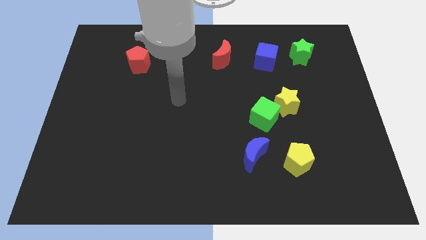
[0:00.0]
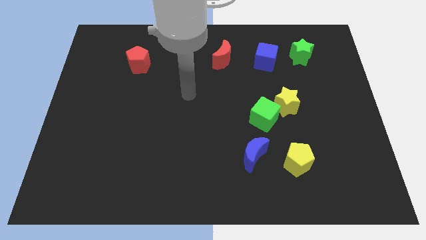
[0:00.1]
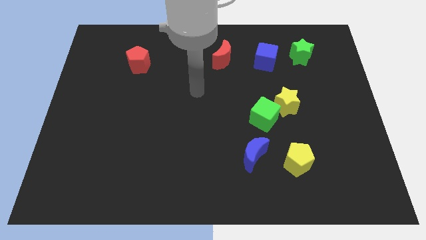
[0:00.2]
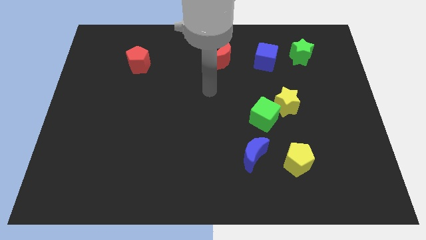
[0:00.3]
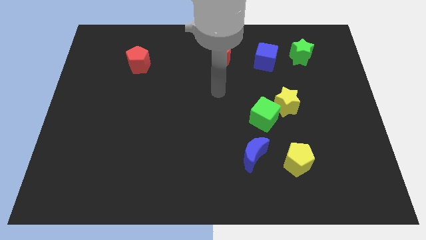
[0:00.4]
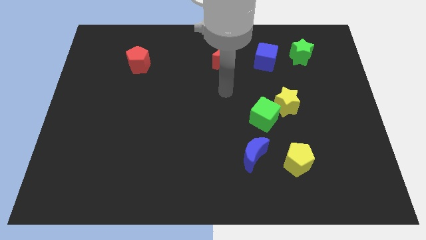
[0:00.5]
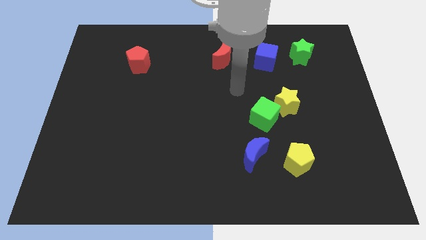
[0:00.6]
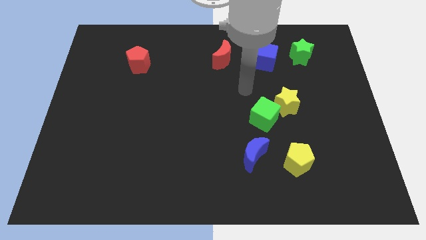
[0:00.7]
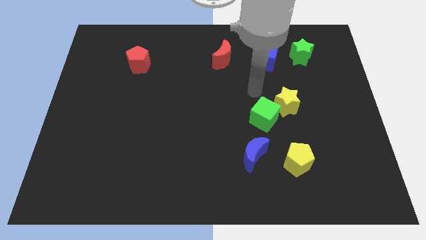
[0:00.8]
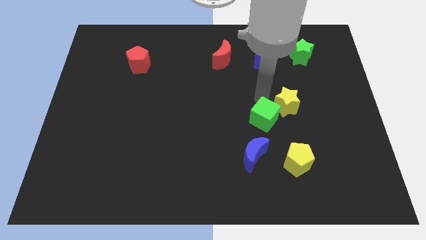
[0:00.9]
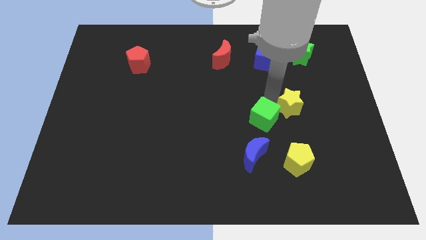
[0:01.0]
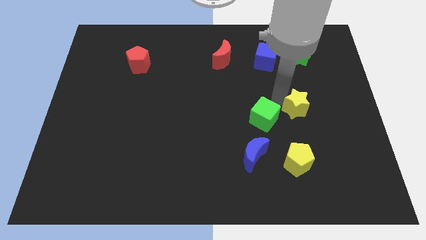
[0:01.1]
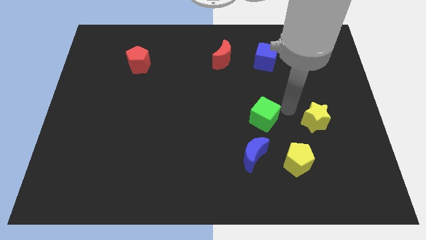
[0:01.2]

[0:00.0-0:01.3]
pull the green cube apart from the yellow star

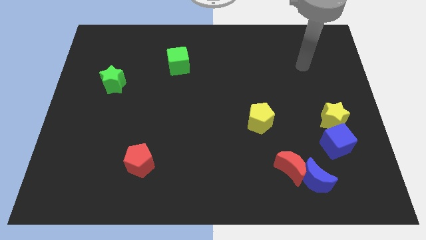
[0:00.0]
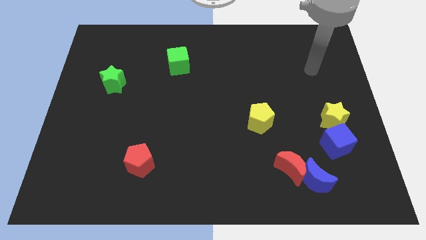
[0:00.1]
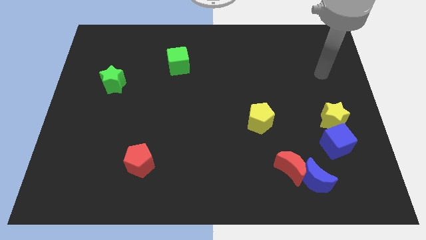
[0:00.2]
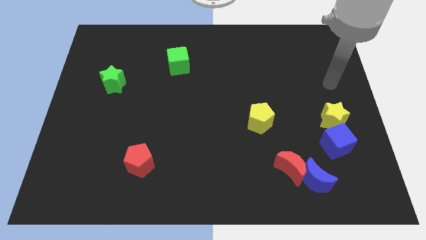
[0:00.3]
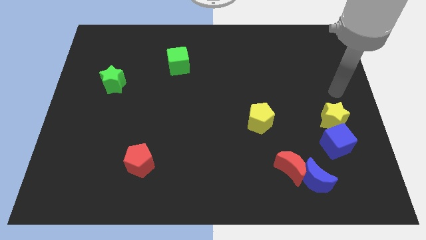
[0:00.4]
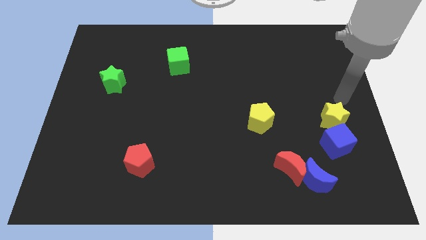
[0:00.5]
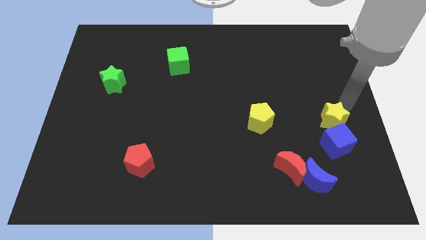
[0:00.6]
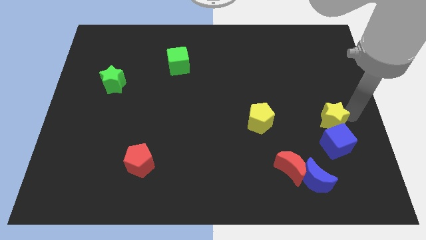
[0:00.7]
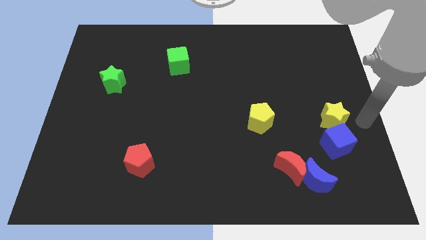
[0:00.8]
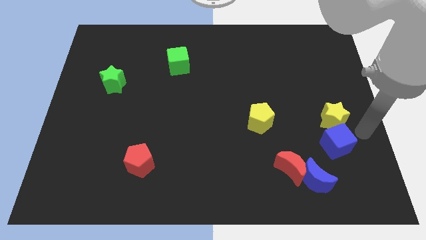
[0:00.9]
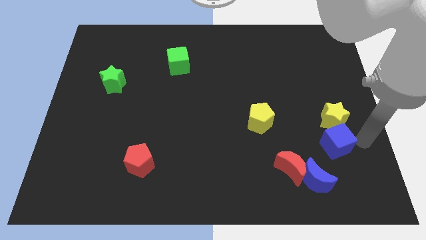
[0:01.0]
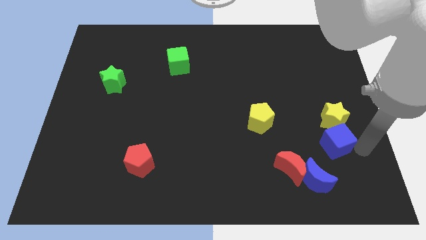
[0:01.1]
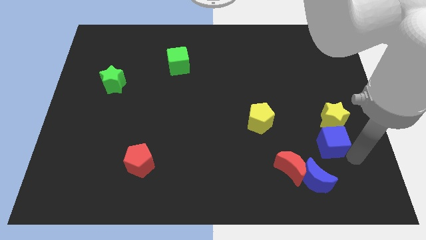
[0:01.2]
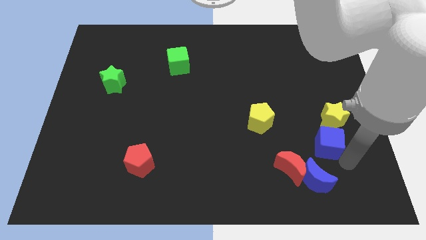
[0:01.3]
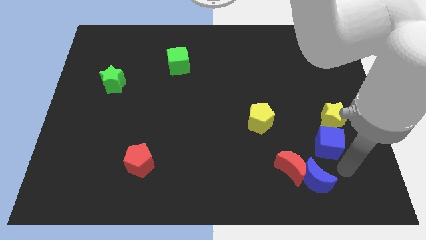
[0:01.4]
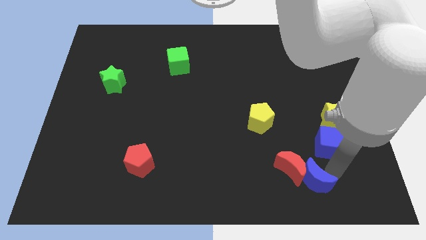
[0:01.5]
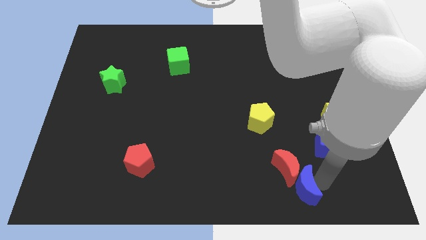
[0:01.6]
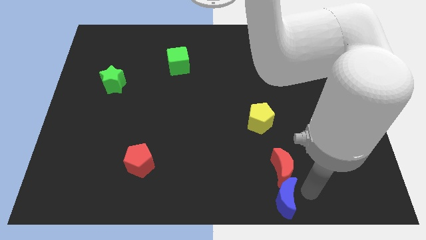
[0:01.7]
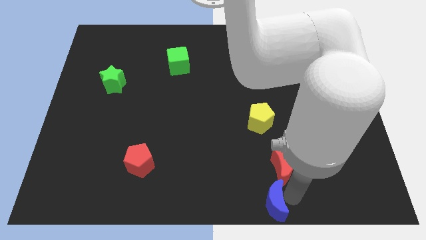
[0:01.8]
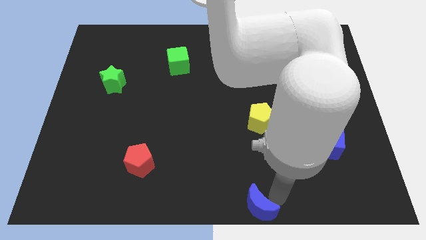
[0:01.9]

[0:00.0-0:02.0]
move the red moon away from the blue moon

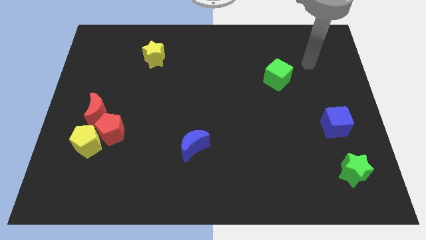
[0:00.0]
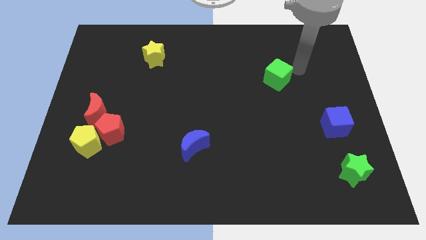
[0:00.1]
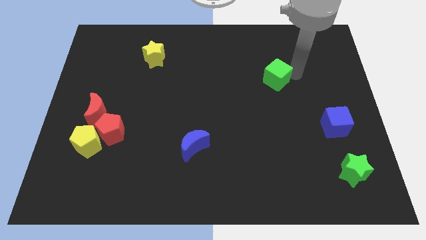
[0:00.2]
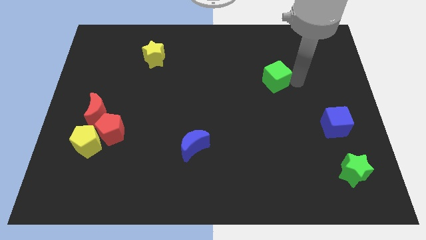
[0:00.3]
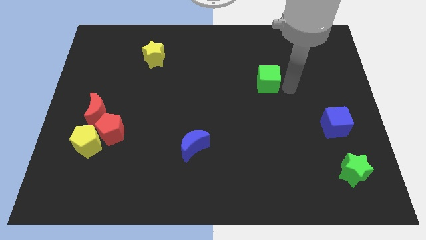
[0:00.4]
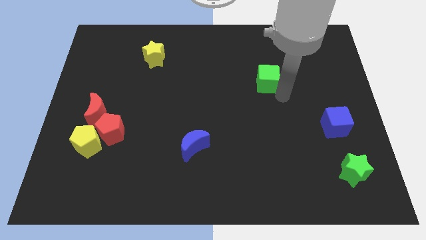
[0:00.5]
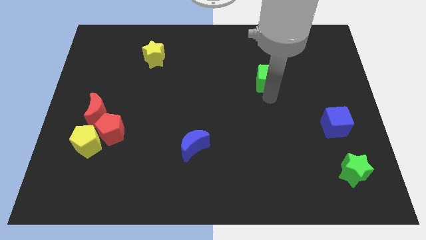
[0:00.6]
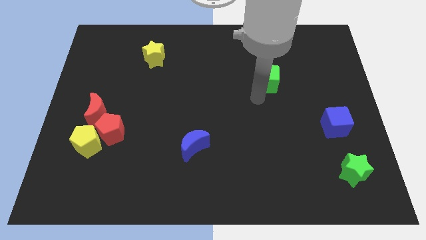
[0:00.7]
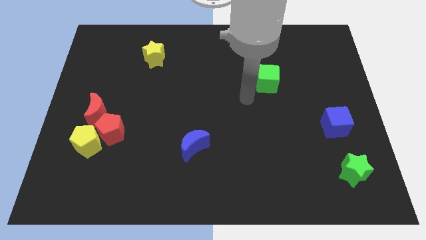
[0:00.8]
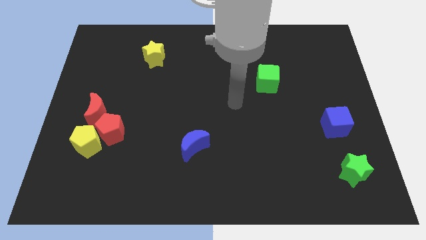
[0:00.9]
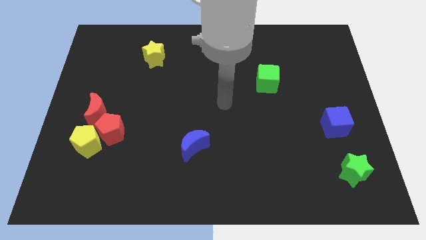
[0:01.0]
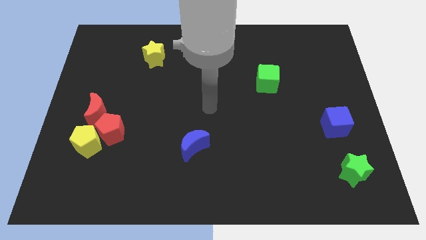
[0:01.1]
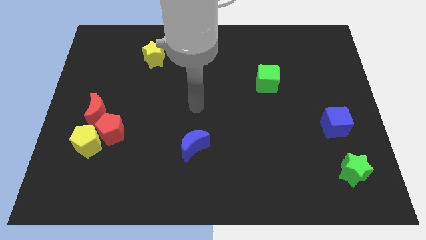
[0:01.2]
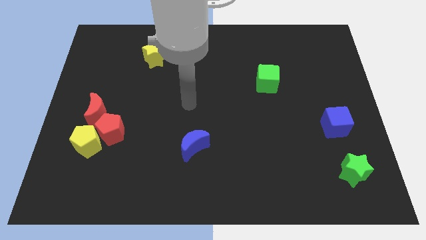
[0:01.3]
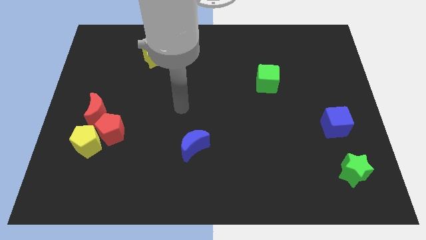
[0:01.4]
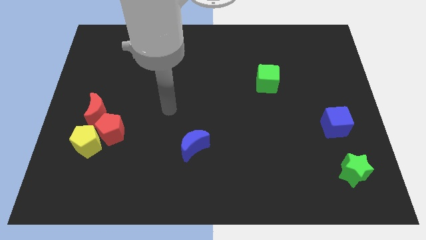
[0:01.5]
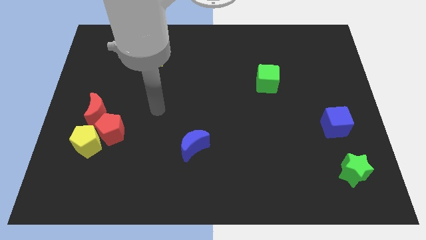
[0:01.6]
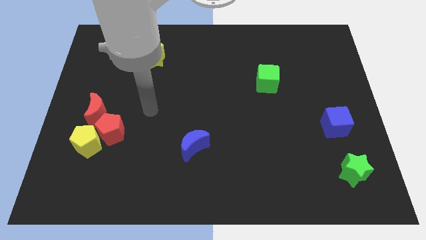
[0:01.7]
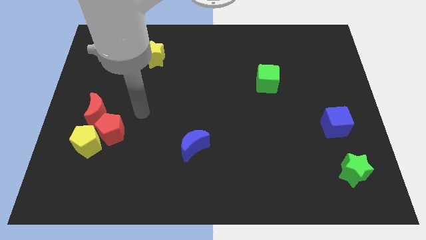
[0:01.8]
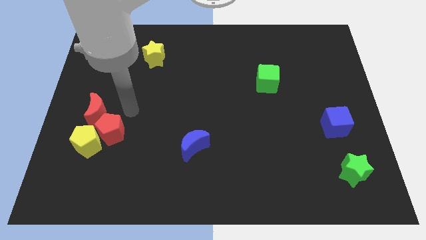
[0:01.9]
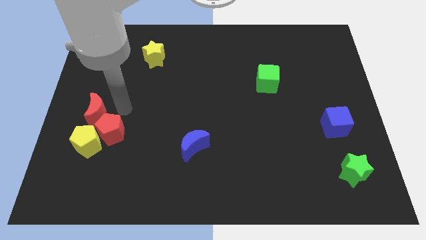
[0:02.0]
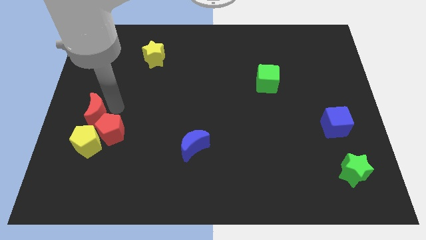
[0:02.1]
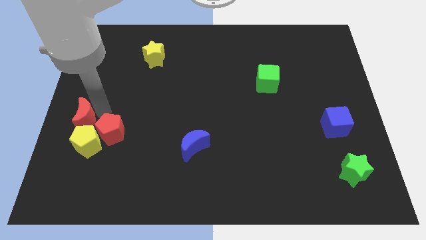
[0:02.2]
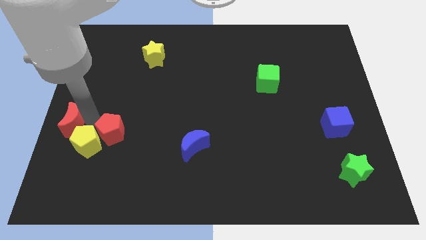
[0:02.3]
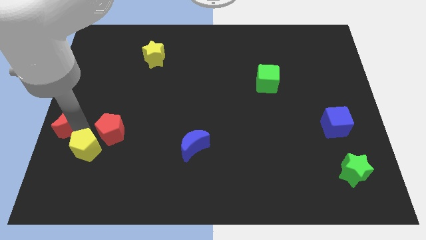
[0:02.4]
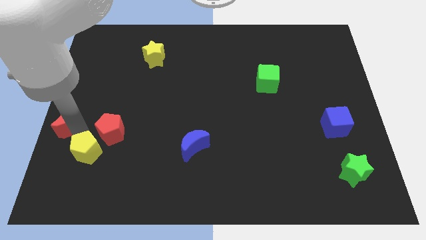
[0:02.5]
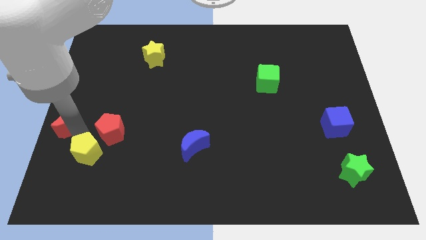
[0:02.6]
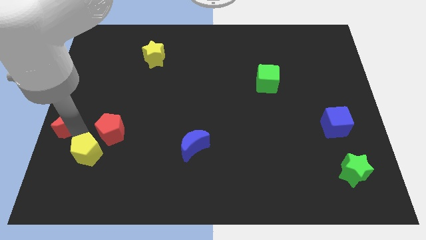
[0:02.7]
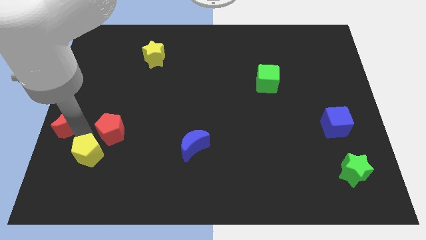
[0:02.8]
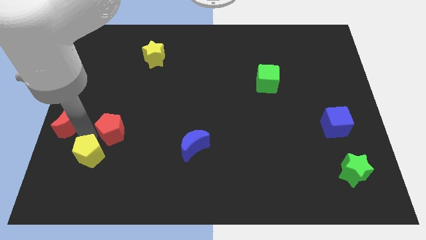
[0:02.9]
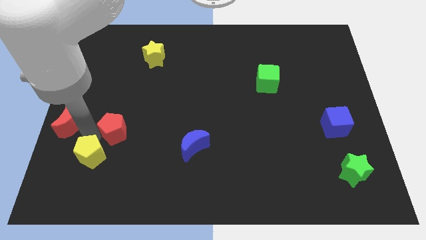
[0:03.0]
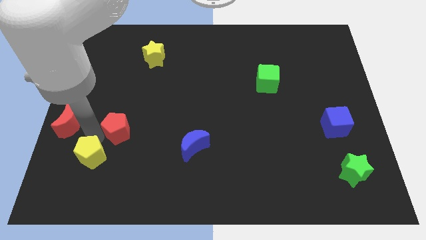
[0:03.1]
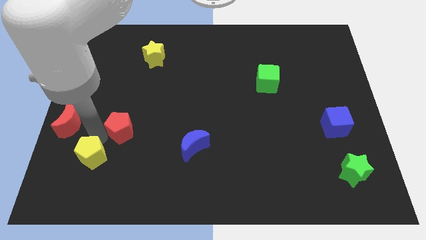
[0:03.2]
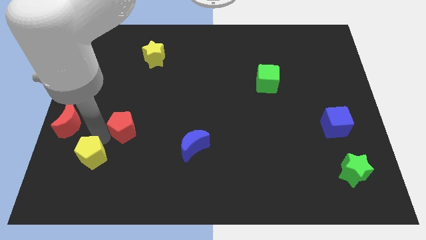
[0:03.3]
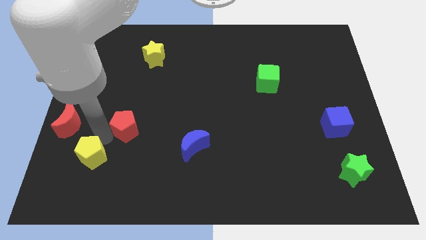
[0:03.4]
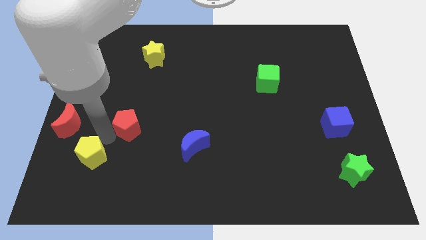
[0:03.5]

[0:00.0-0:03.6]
move the red pentagon away from the yellow pentagon and red moon

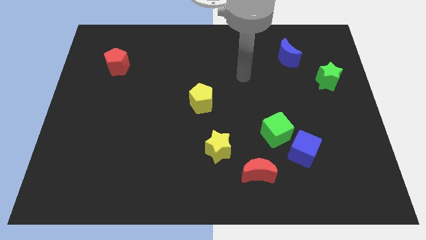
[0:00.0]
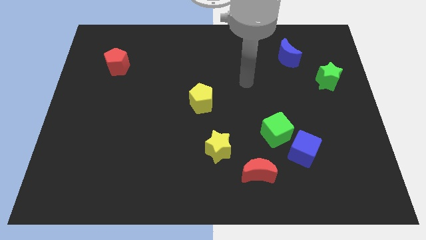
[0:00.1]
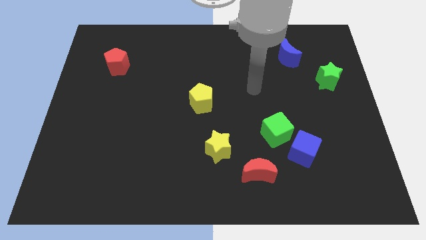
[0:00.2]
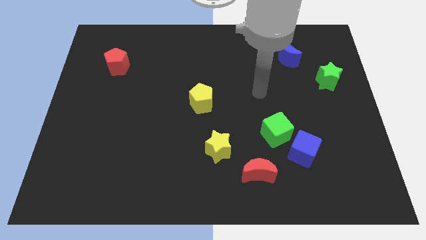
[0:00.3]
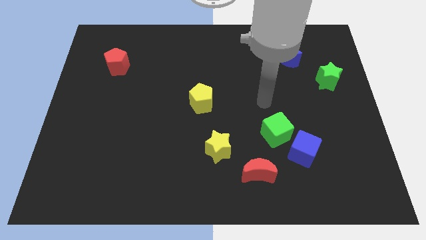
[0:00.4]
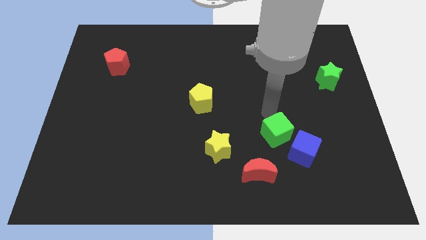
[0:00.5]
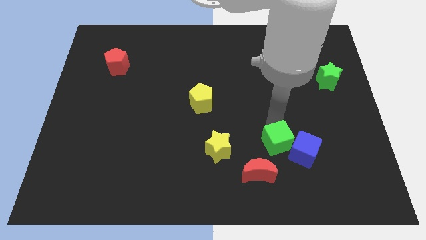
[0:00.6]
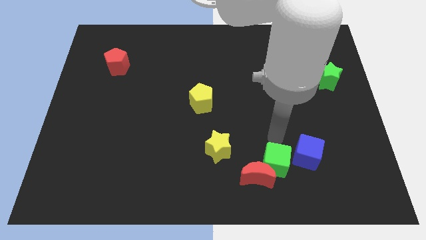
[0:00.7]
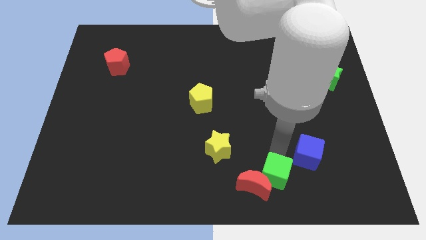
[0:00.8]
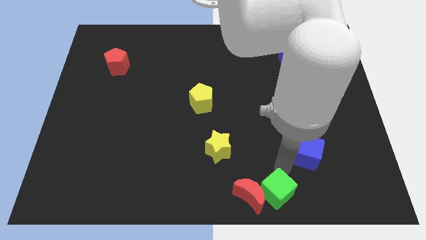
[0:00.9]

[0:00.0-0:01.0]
move the blue cube away from the green cube

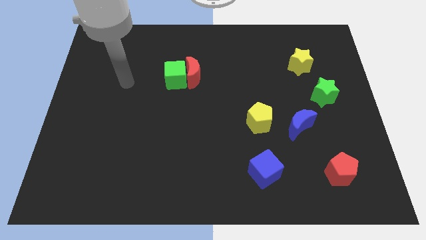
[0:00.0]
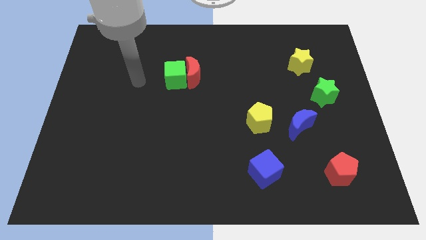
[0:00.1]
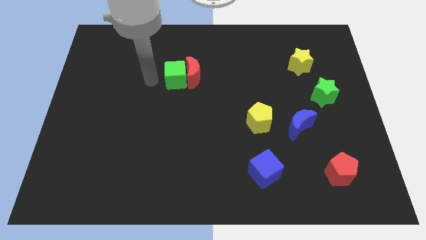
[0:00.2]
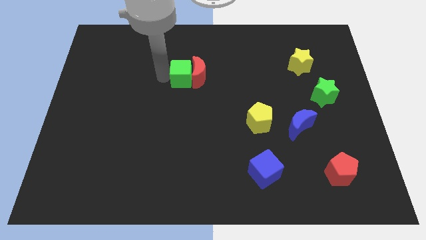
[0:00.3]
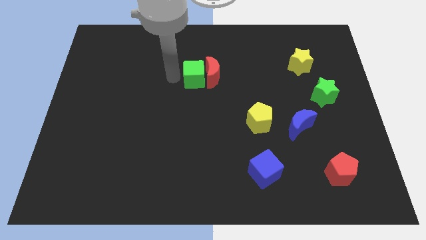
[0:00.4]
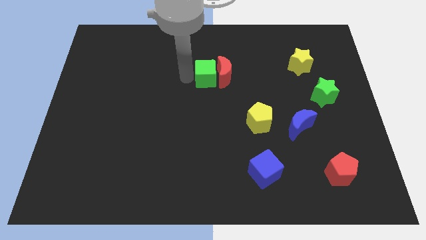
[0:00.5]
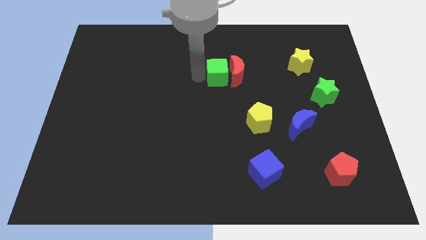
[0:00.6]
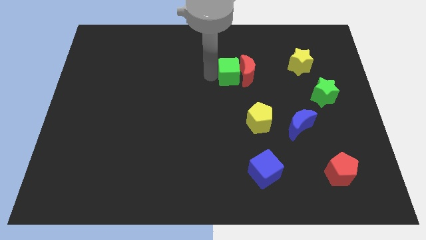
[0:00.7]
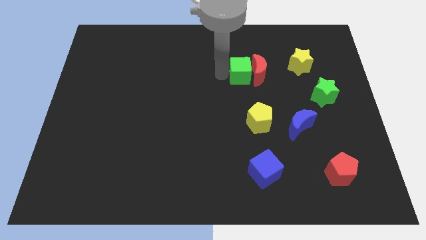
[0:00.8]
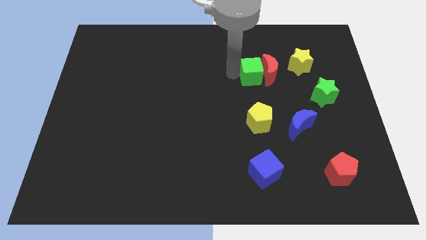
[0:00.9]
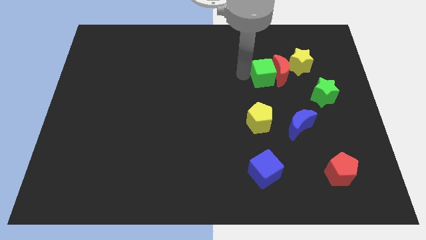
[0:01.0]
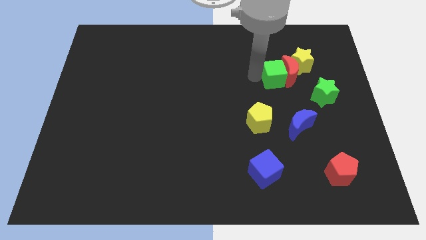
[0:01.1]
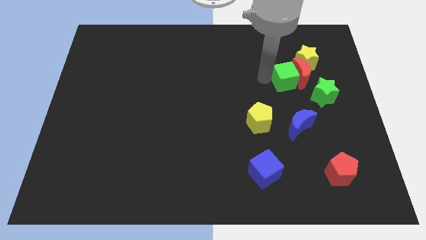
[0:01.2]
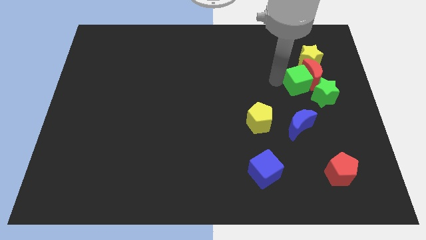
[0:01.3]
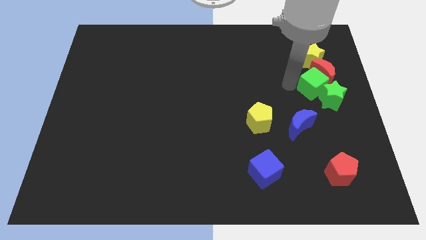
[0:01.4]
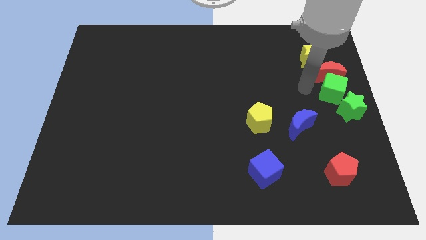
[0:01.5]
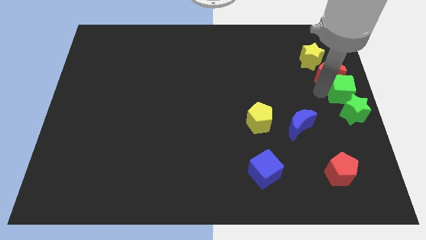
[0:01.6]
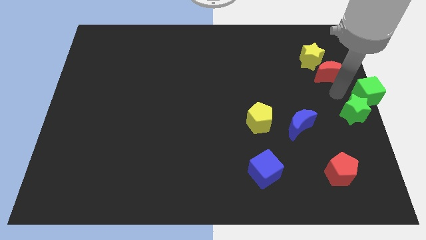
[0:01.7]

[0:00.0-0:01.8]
pull the red moon apart from the green cube
